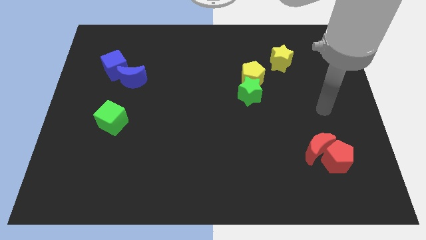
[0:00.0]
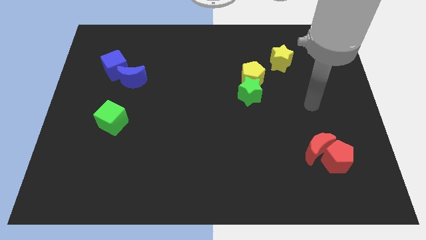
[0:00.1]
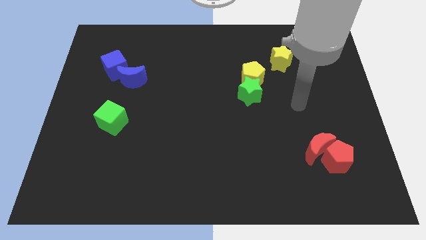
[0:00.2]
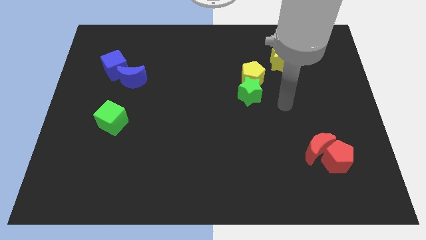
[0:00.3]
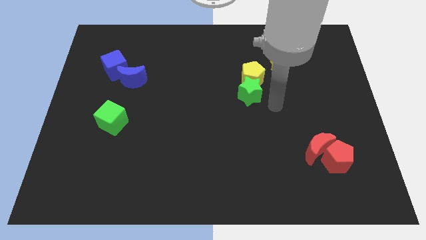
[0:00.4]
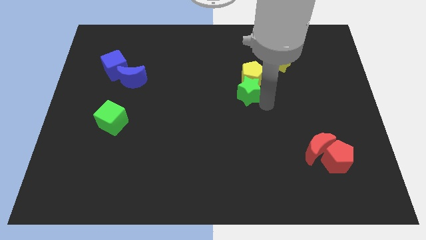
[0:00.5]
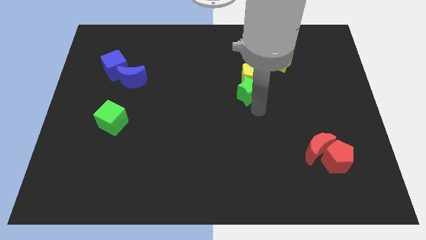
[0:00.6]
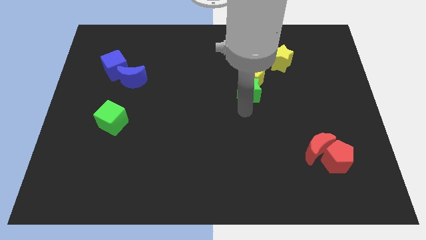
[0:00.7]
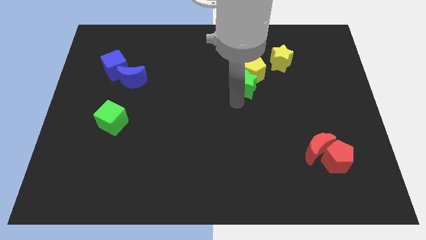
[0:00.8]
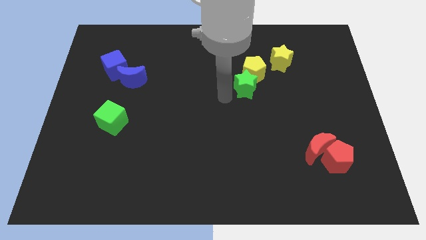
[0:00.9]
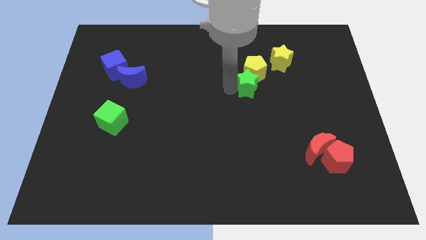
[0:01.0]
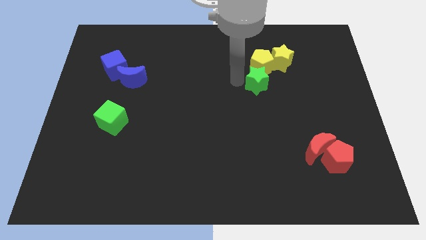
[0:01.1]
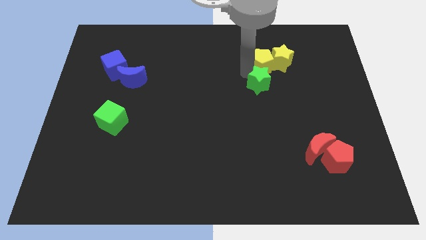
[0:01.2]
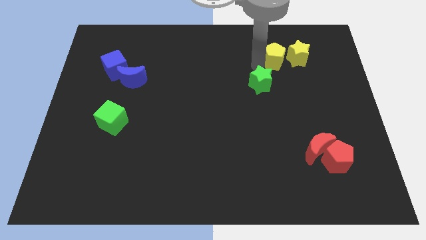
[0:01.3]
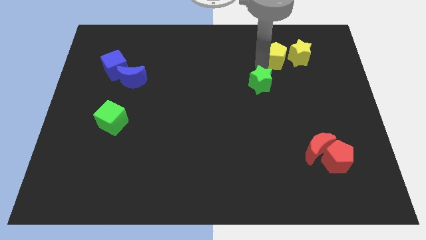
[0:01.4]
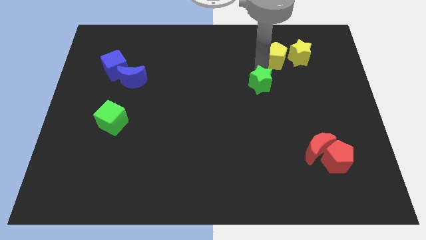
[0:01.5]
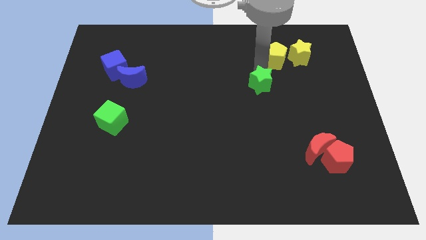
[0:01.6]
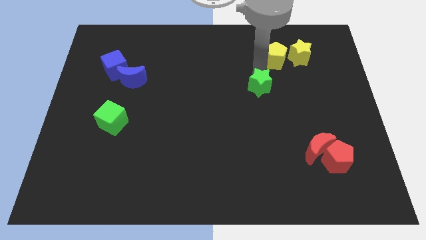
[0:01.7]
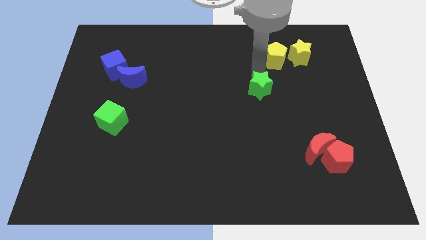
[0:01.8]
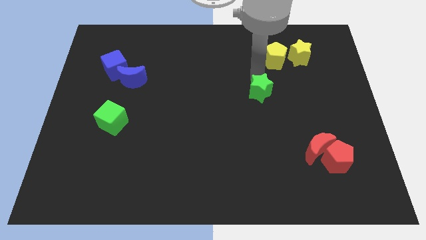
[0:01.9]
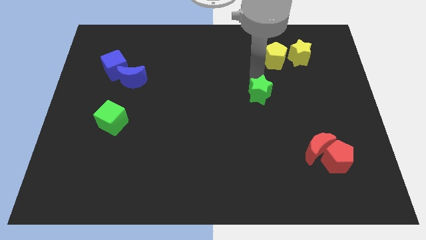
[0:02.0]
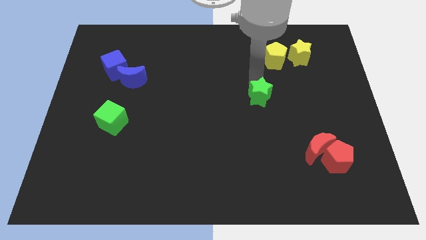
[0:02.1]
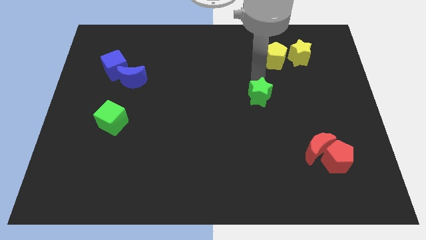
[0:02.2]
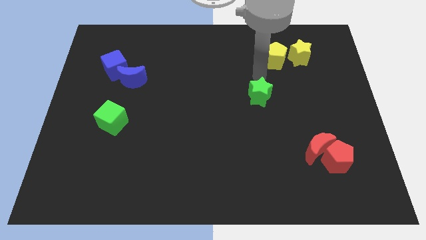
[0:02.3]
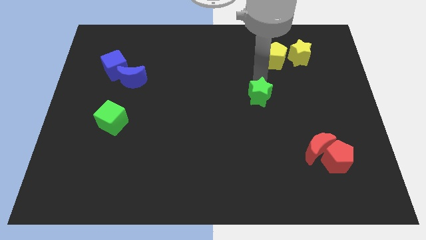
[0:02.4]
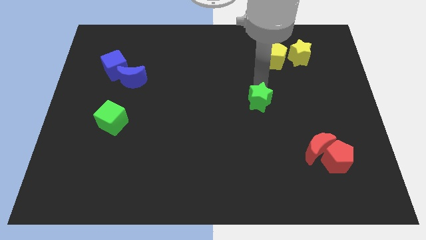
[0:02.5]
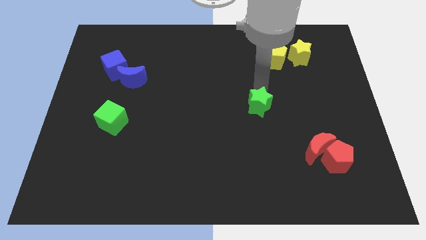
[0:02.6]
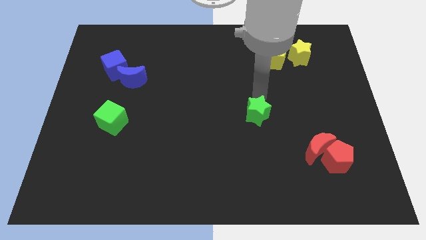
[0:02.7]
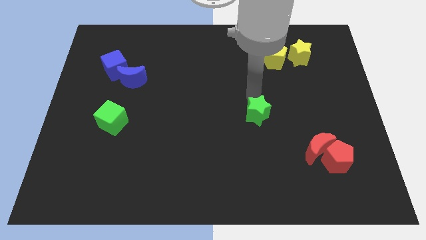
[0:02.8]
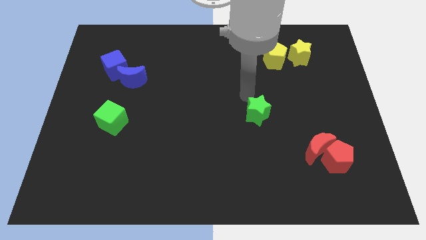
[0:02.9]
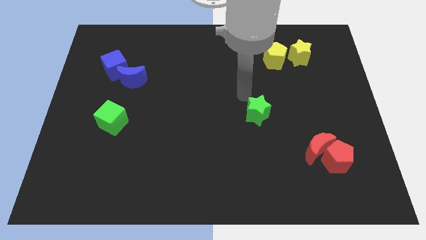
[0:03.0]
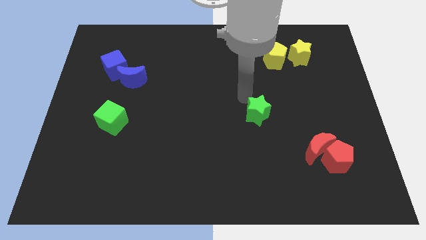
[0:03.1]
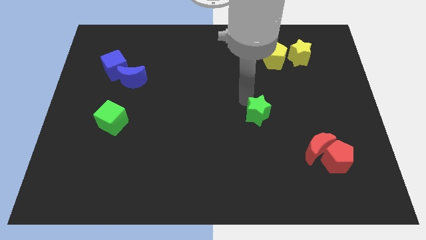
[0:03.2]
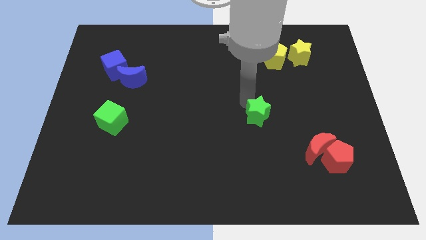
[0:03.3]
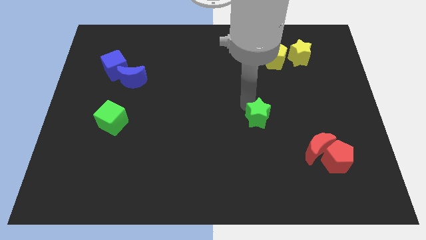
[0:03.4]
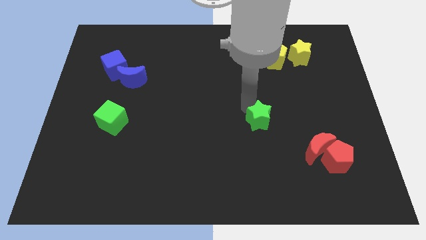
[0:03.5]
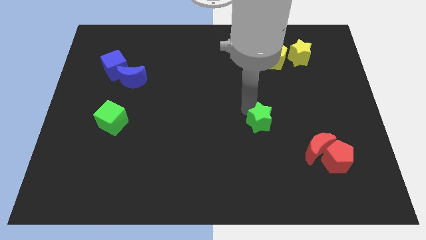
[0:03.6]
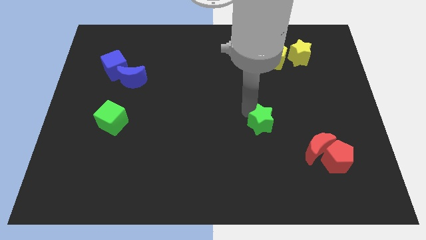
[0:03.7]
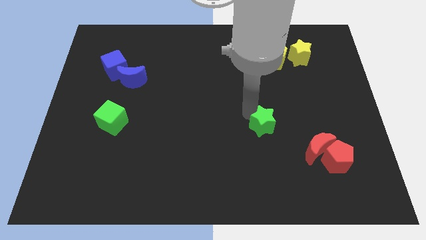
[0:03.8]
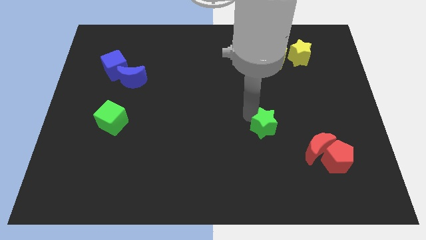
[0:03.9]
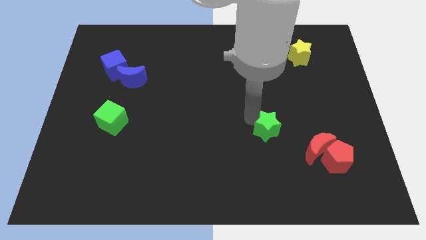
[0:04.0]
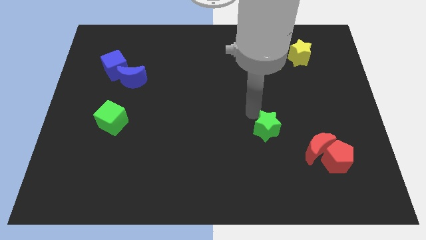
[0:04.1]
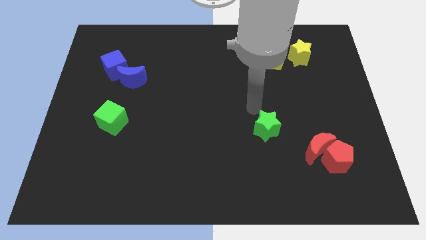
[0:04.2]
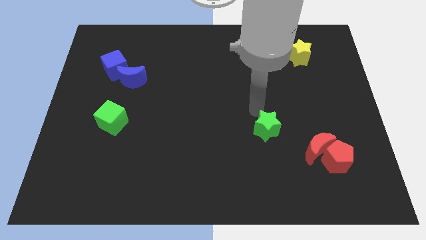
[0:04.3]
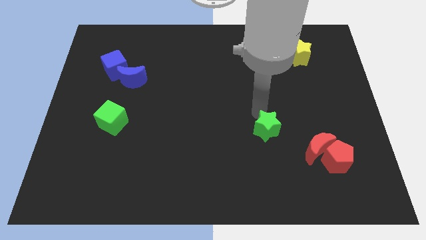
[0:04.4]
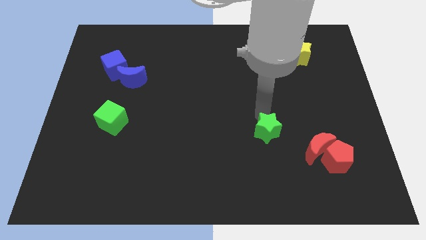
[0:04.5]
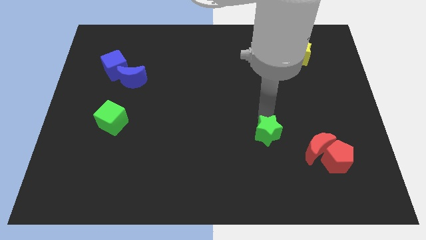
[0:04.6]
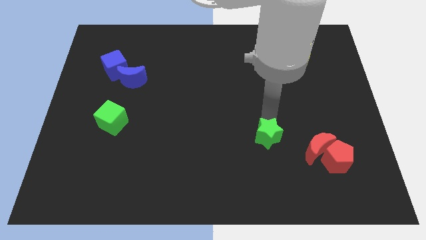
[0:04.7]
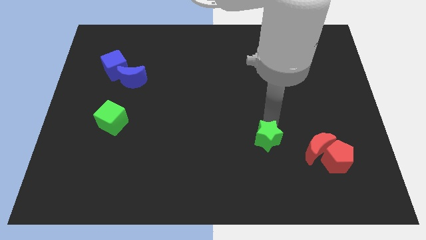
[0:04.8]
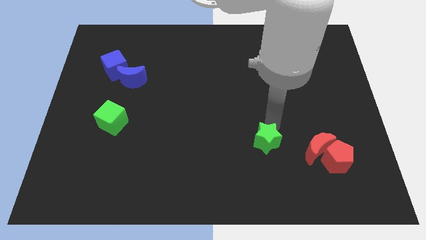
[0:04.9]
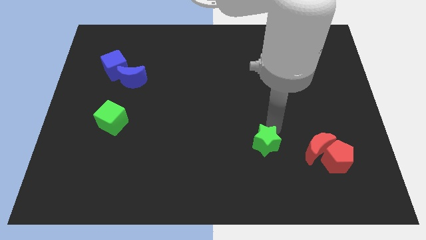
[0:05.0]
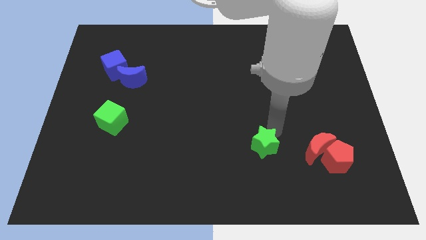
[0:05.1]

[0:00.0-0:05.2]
move the green star left of the red pentagon

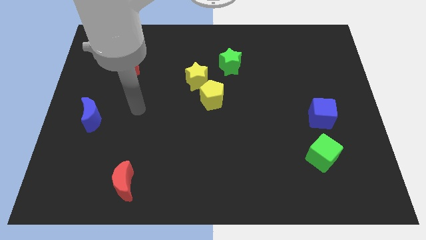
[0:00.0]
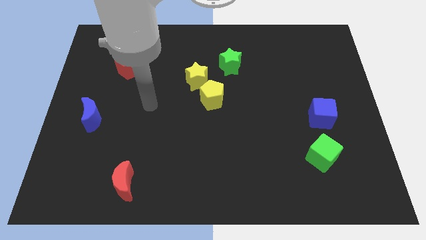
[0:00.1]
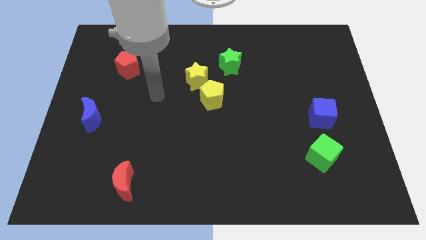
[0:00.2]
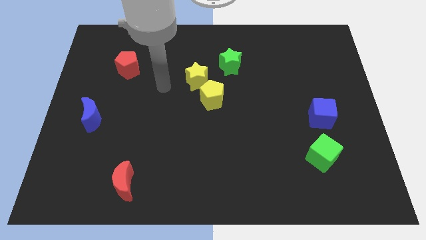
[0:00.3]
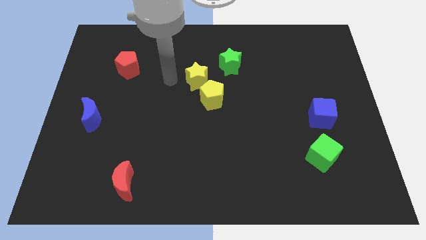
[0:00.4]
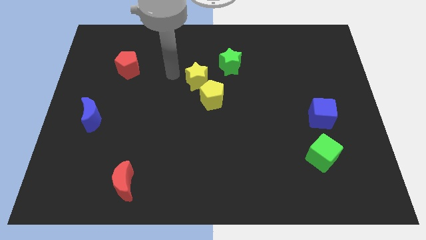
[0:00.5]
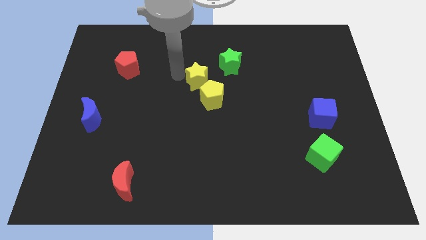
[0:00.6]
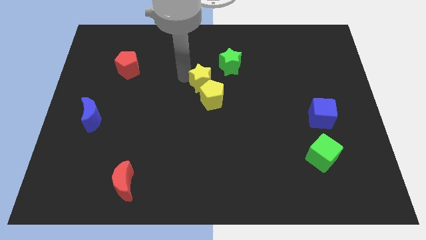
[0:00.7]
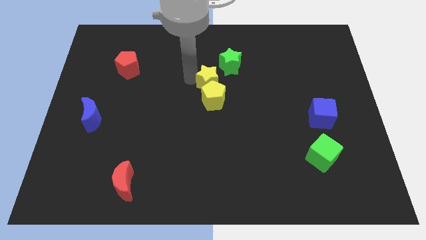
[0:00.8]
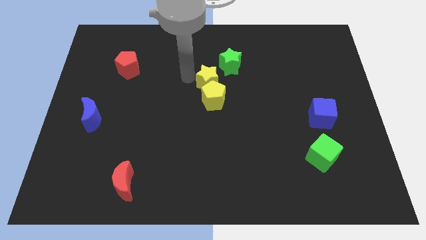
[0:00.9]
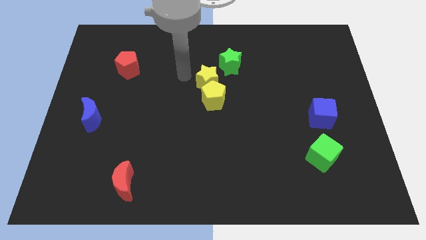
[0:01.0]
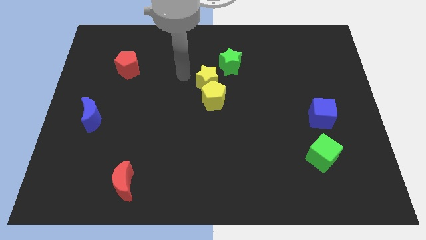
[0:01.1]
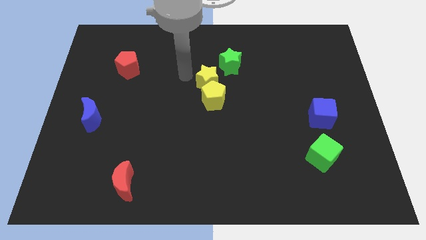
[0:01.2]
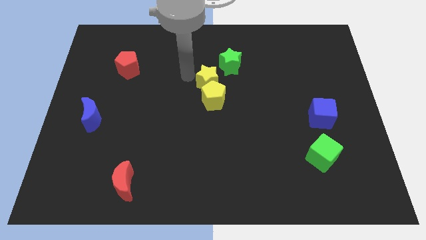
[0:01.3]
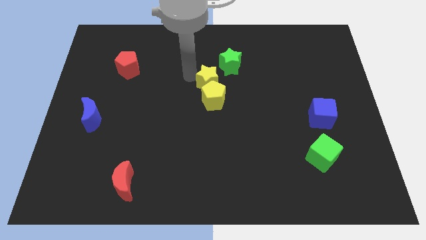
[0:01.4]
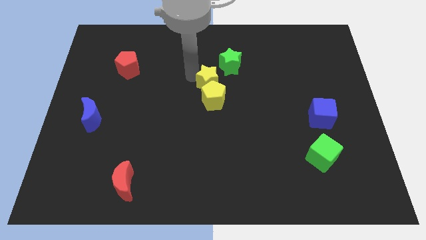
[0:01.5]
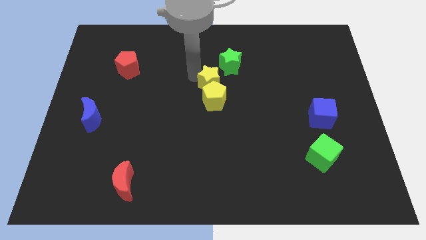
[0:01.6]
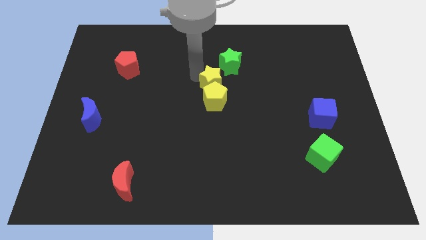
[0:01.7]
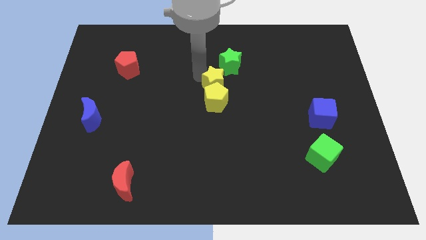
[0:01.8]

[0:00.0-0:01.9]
push the yellow star to the bottom of the green star
